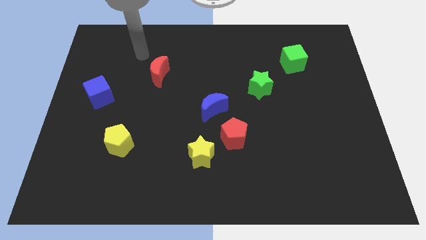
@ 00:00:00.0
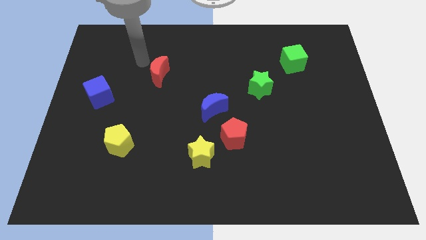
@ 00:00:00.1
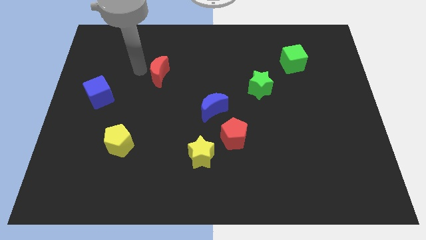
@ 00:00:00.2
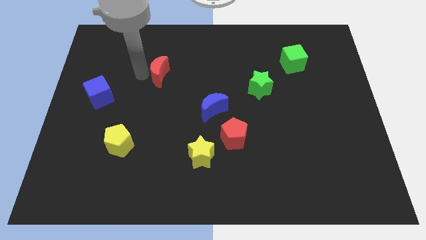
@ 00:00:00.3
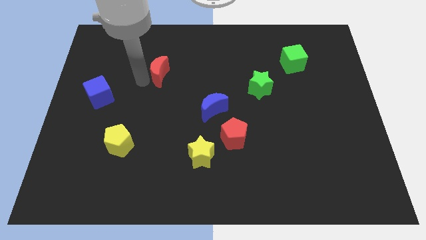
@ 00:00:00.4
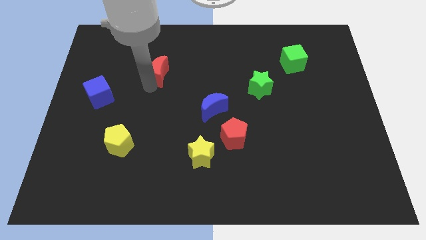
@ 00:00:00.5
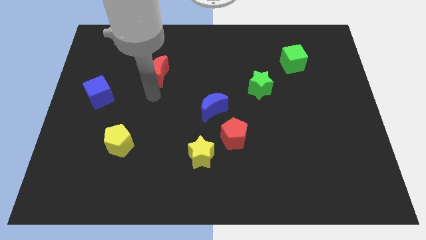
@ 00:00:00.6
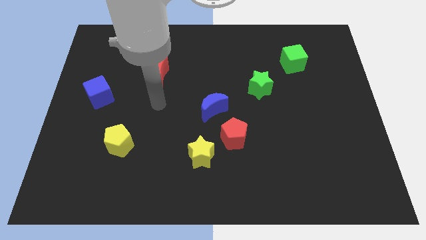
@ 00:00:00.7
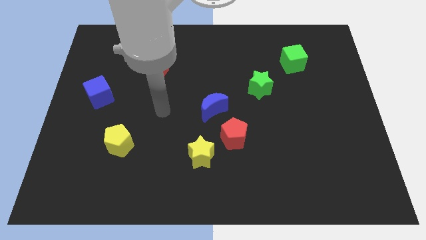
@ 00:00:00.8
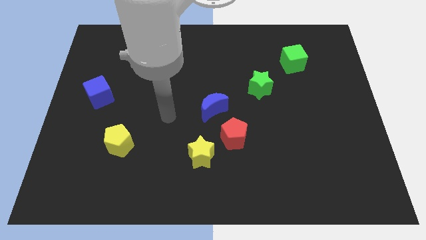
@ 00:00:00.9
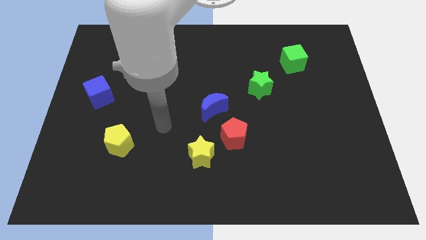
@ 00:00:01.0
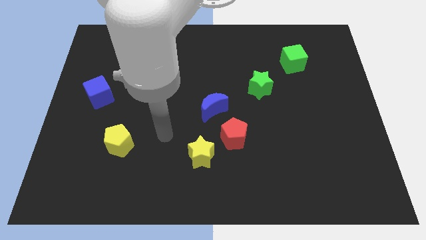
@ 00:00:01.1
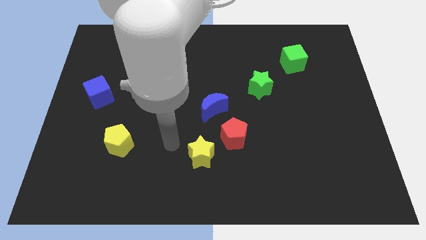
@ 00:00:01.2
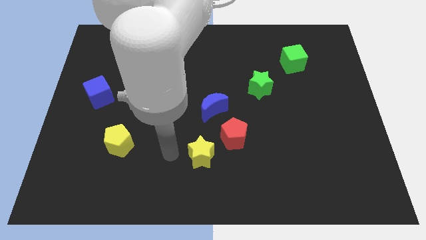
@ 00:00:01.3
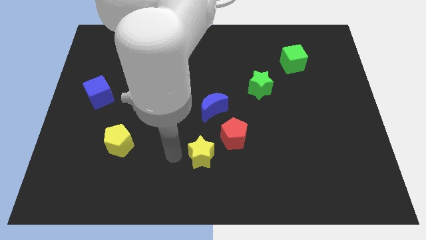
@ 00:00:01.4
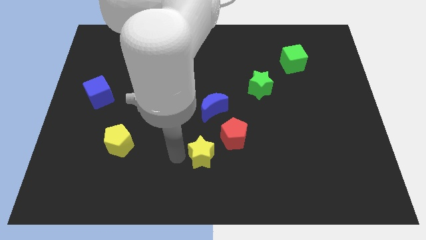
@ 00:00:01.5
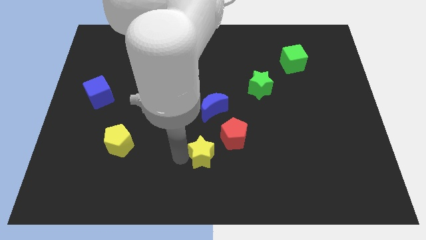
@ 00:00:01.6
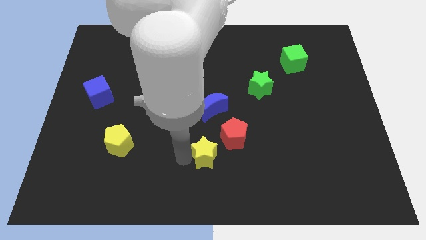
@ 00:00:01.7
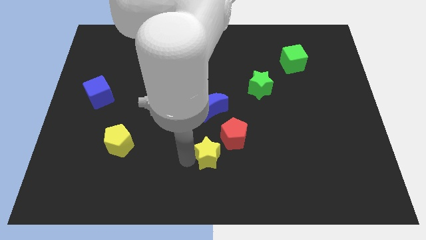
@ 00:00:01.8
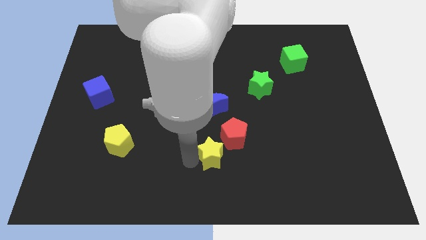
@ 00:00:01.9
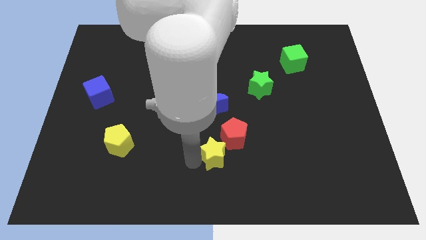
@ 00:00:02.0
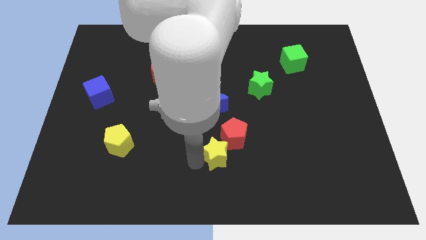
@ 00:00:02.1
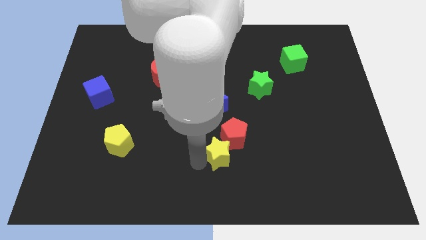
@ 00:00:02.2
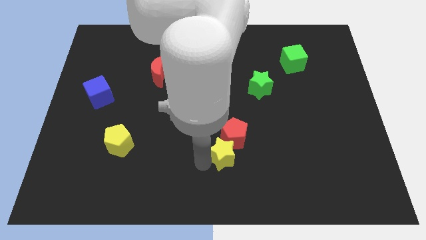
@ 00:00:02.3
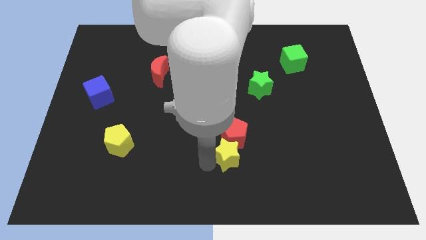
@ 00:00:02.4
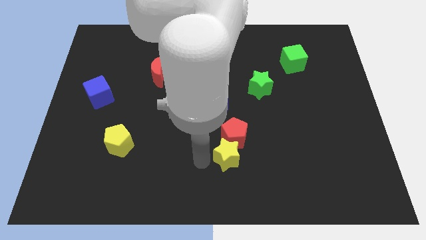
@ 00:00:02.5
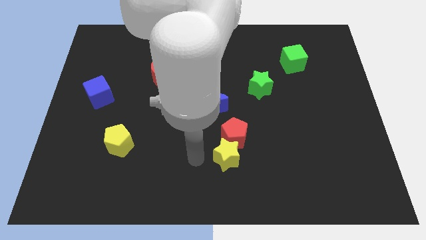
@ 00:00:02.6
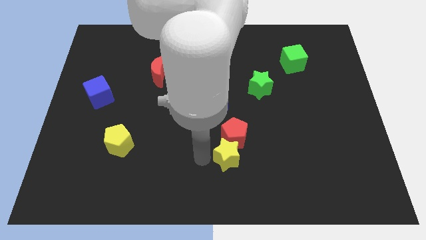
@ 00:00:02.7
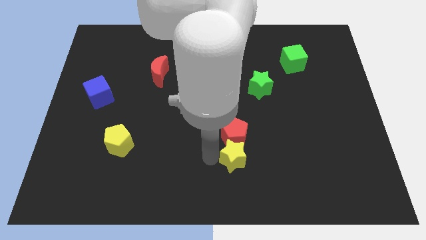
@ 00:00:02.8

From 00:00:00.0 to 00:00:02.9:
slide the yellow star slightly right

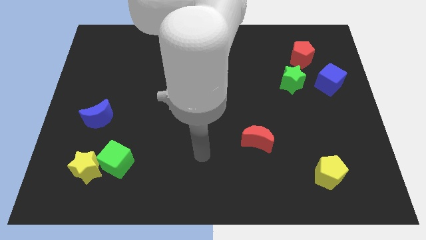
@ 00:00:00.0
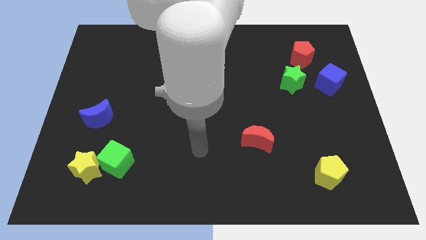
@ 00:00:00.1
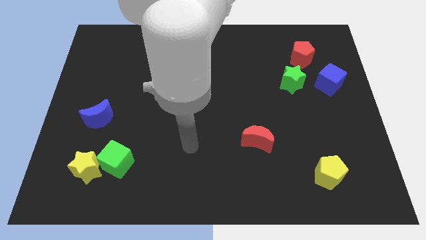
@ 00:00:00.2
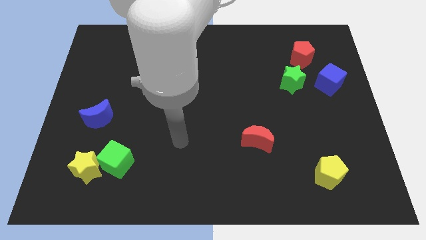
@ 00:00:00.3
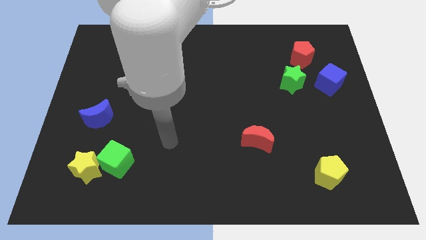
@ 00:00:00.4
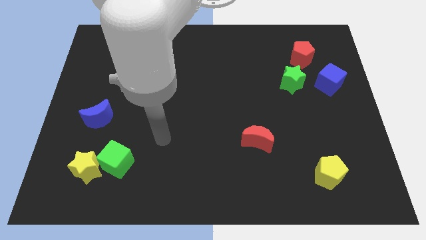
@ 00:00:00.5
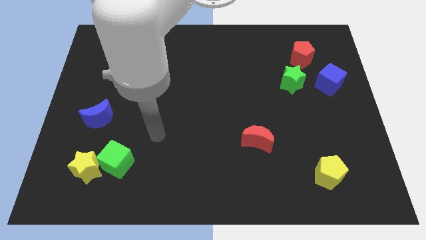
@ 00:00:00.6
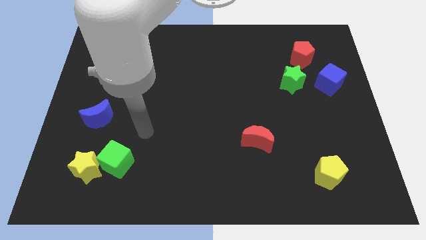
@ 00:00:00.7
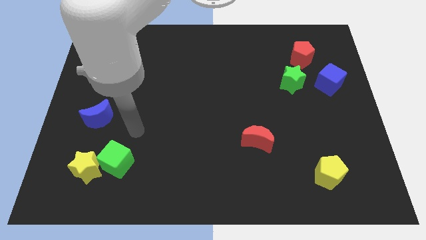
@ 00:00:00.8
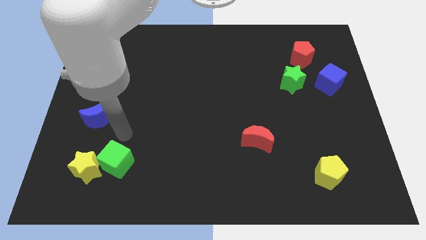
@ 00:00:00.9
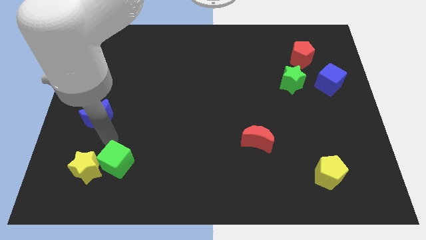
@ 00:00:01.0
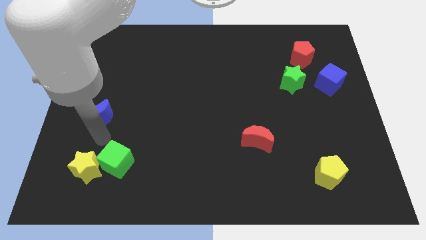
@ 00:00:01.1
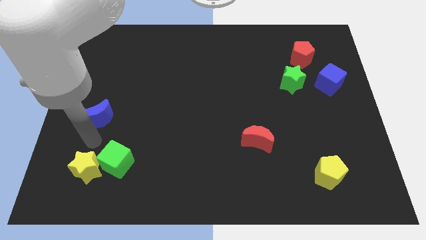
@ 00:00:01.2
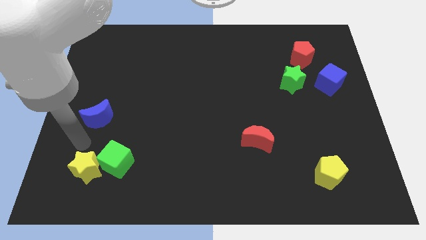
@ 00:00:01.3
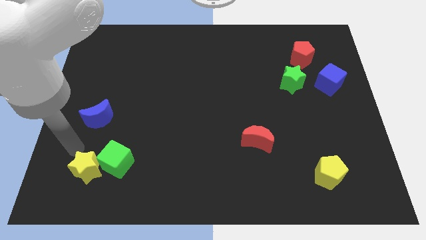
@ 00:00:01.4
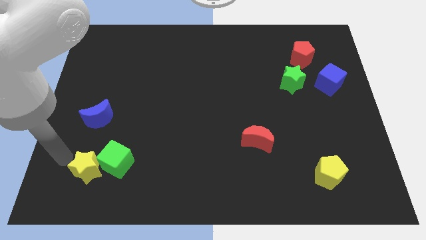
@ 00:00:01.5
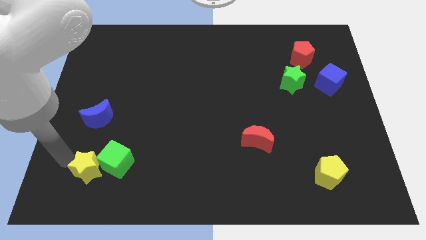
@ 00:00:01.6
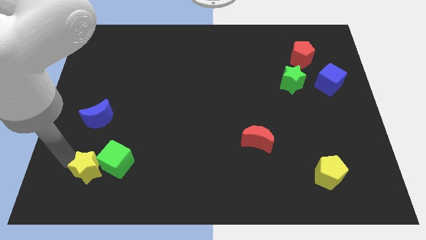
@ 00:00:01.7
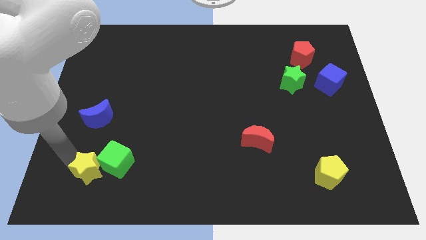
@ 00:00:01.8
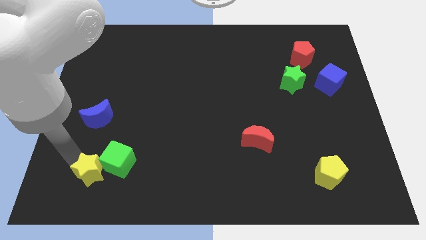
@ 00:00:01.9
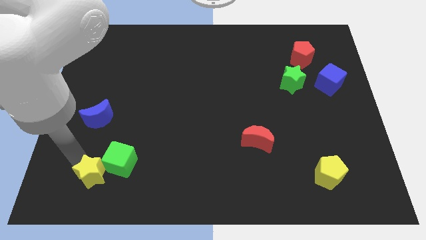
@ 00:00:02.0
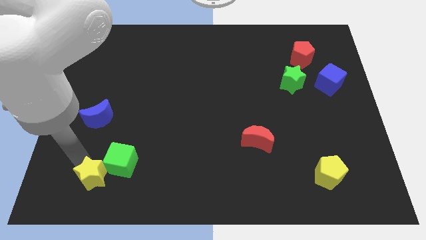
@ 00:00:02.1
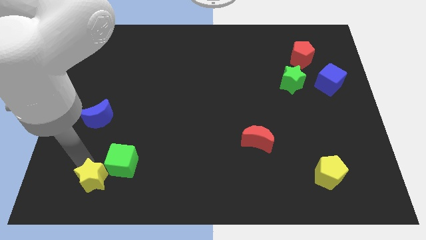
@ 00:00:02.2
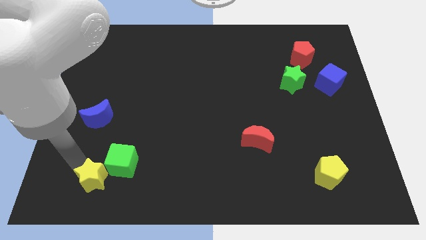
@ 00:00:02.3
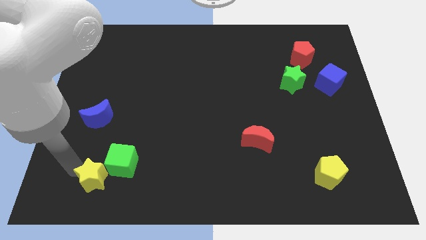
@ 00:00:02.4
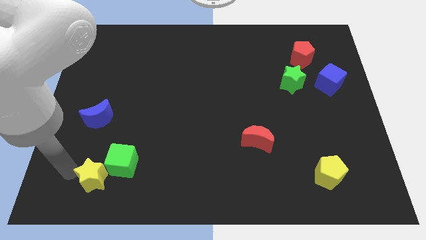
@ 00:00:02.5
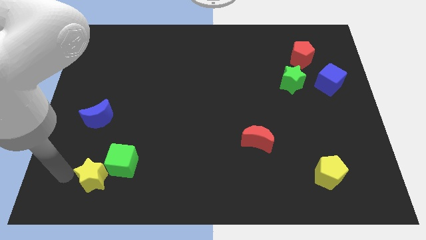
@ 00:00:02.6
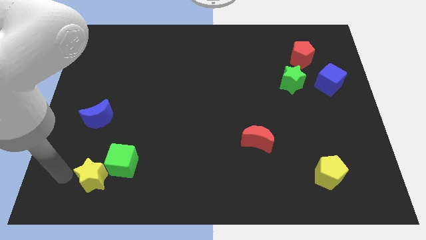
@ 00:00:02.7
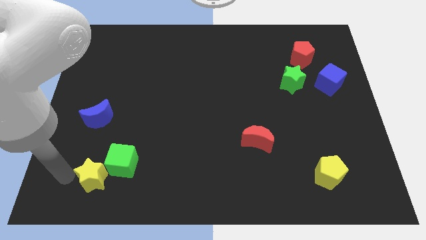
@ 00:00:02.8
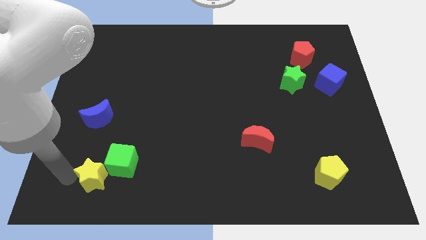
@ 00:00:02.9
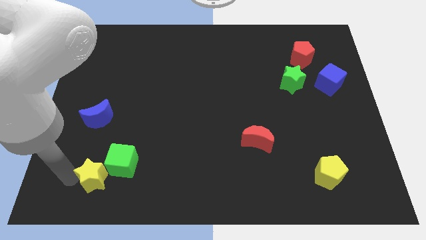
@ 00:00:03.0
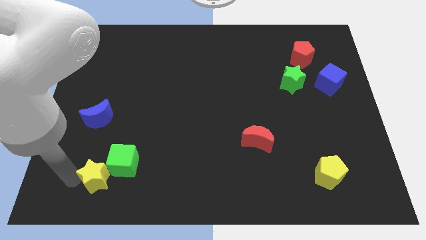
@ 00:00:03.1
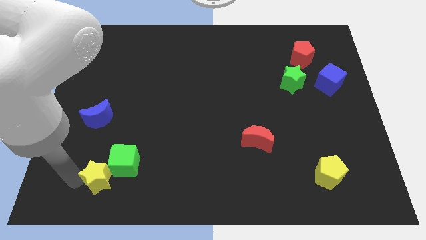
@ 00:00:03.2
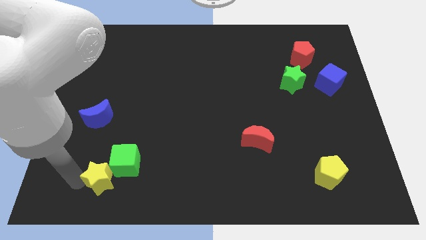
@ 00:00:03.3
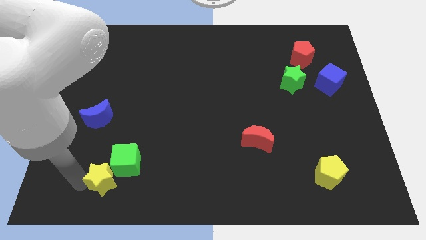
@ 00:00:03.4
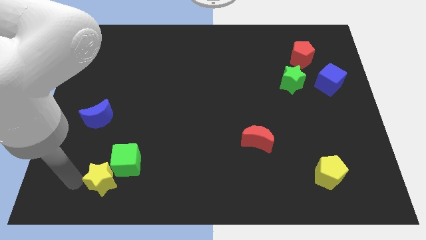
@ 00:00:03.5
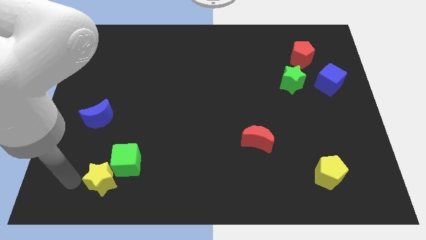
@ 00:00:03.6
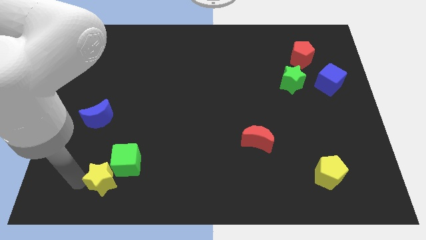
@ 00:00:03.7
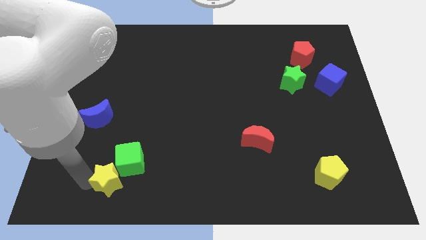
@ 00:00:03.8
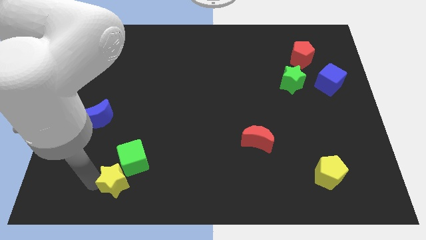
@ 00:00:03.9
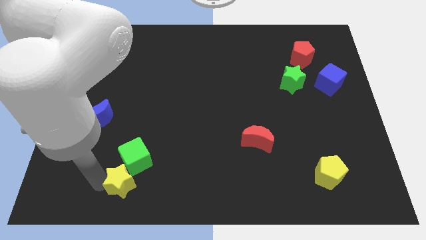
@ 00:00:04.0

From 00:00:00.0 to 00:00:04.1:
push the yellow star right a little bit

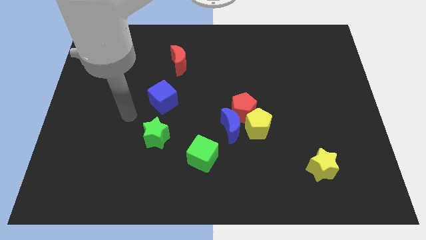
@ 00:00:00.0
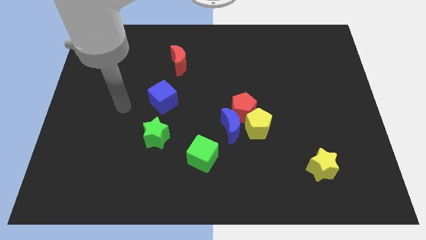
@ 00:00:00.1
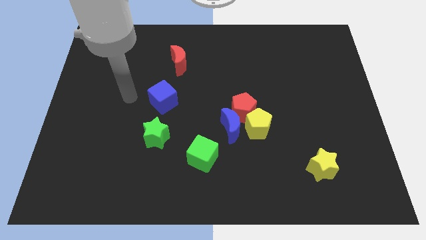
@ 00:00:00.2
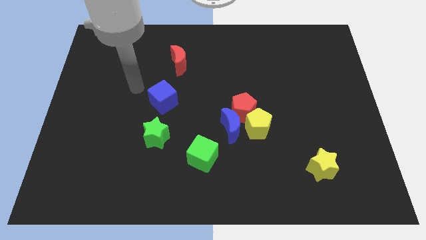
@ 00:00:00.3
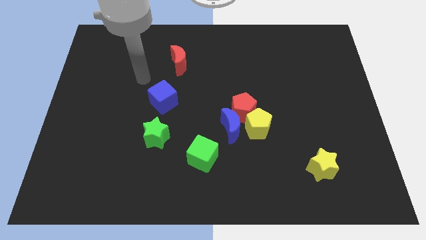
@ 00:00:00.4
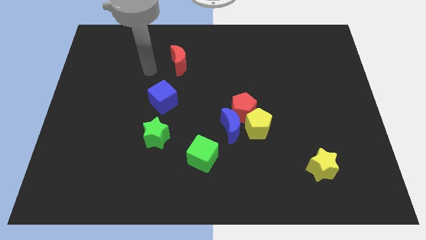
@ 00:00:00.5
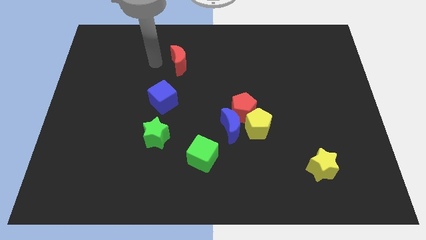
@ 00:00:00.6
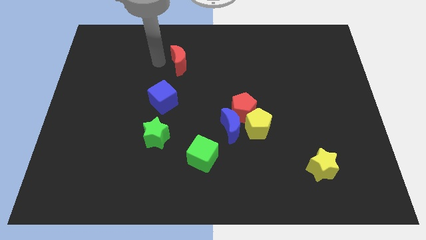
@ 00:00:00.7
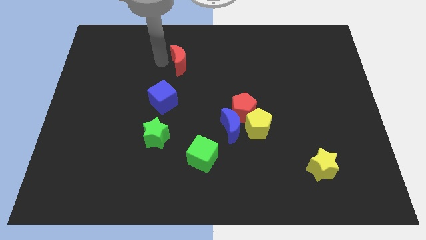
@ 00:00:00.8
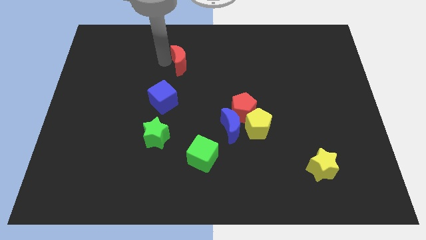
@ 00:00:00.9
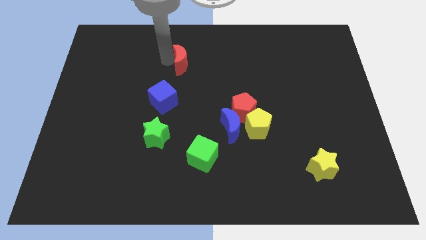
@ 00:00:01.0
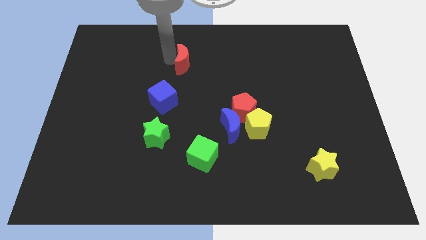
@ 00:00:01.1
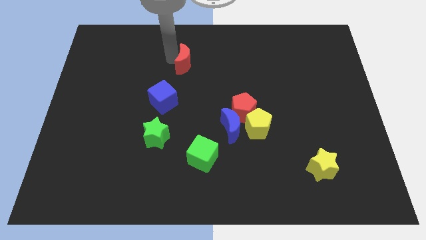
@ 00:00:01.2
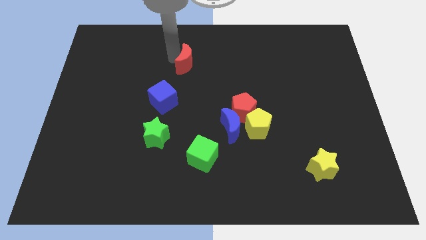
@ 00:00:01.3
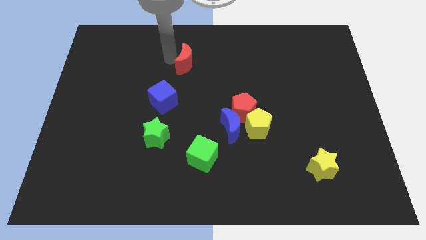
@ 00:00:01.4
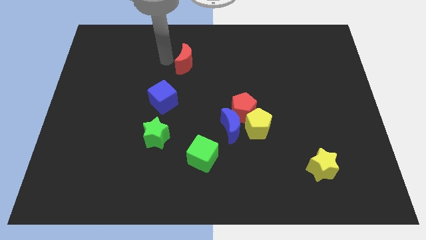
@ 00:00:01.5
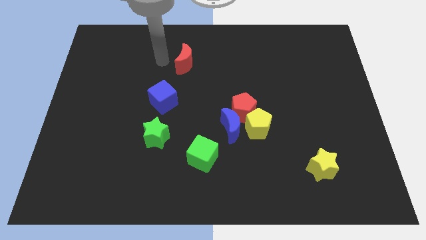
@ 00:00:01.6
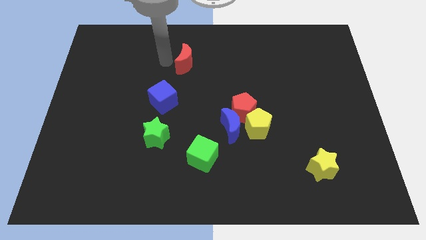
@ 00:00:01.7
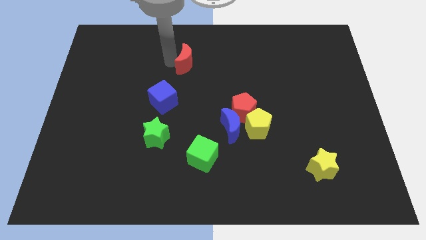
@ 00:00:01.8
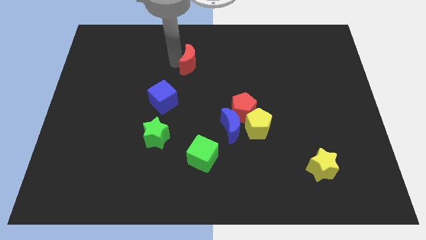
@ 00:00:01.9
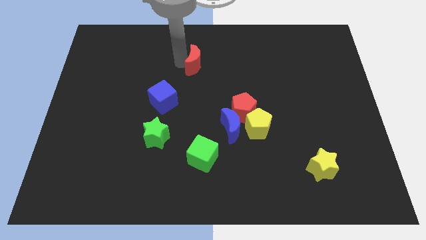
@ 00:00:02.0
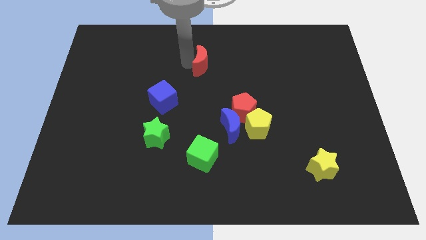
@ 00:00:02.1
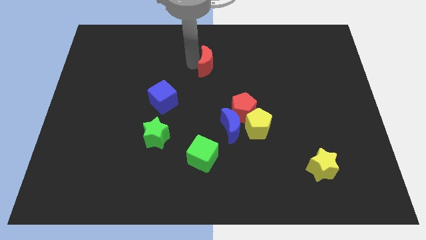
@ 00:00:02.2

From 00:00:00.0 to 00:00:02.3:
push the red moon a little to the right
